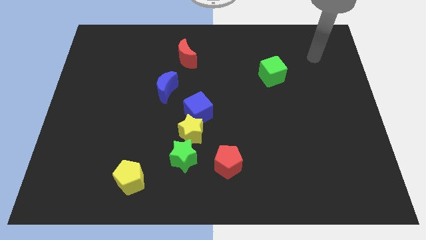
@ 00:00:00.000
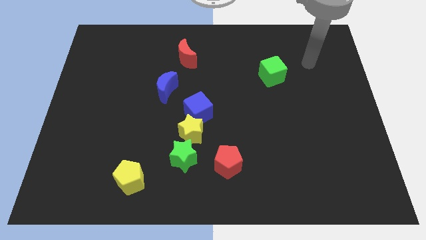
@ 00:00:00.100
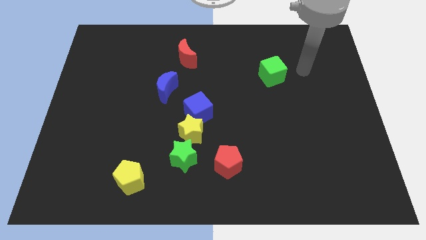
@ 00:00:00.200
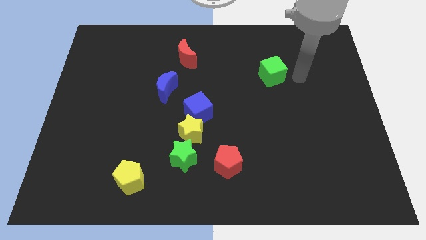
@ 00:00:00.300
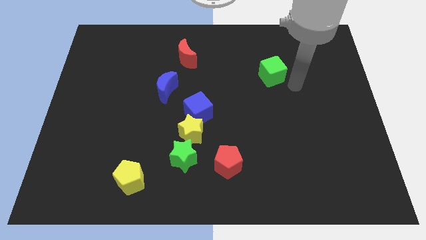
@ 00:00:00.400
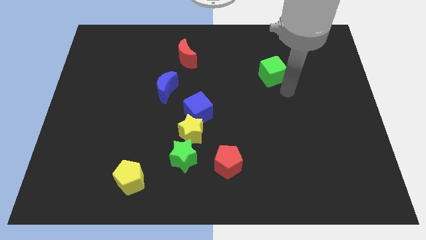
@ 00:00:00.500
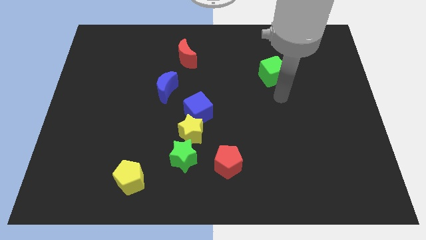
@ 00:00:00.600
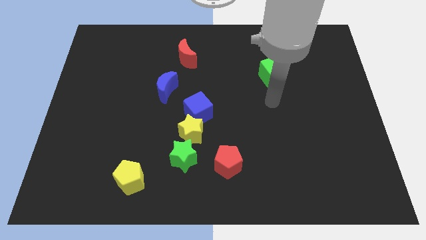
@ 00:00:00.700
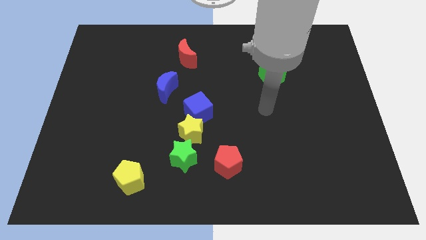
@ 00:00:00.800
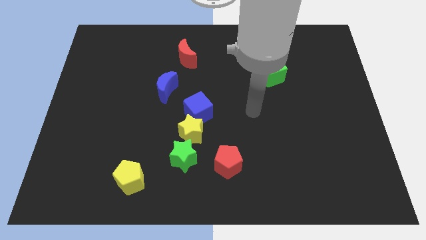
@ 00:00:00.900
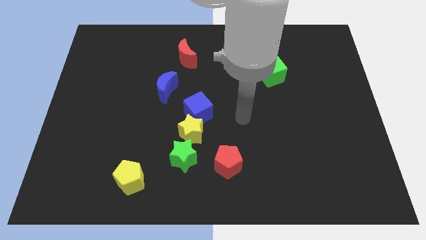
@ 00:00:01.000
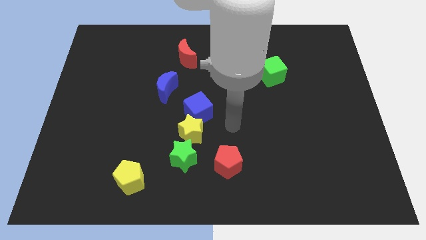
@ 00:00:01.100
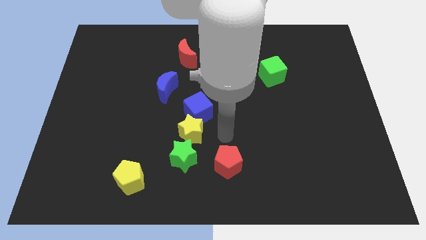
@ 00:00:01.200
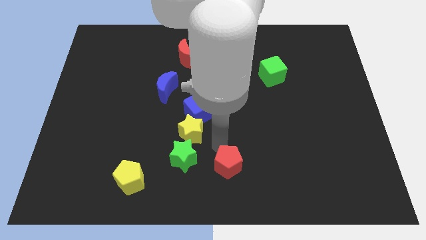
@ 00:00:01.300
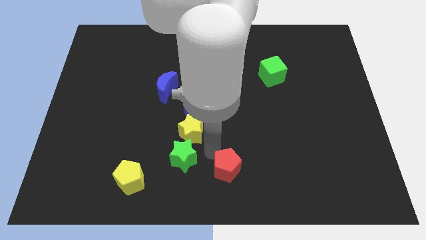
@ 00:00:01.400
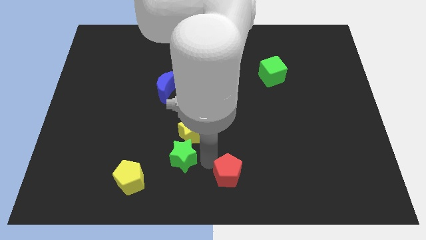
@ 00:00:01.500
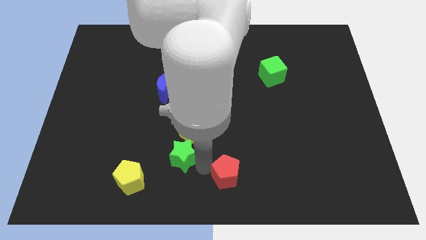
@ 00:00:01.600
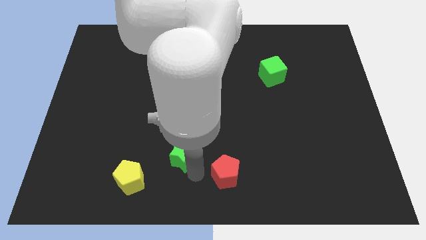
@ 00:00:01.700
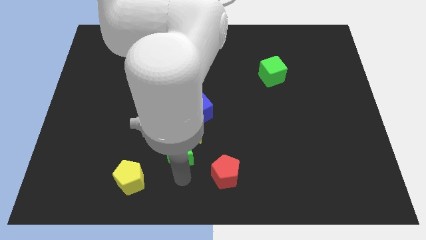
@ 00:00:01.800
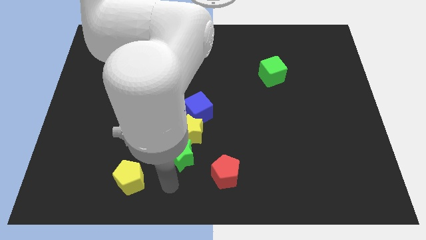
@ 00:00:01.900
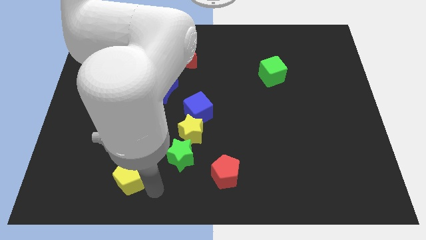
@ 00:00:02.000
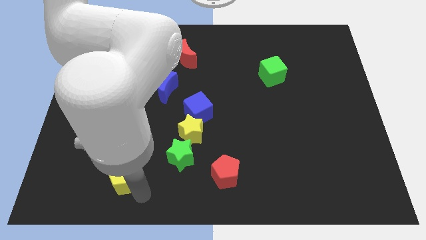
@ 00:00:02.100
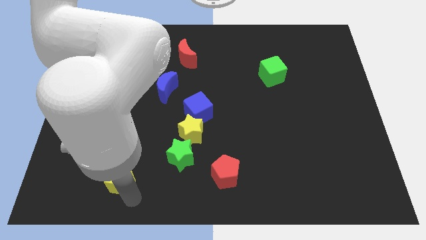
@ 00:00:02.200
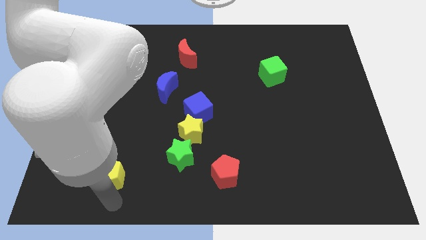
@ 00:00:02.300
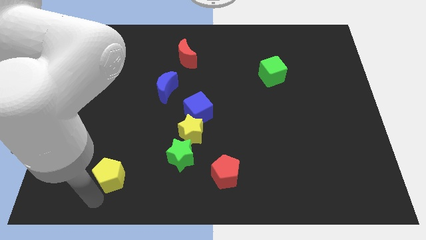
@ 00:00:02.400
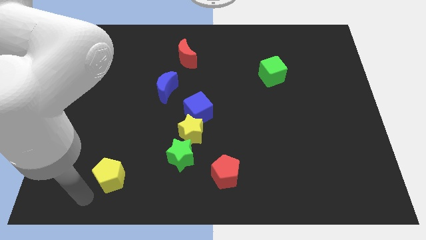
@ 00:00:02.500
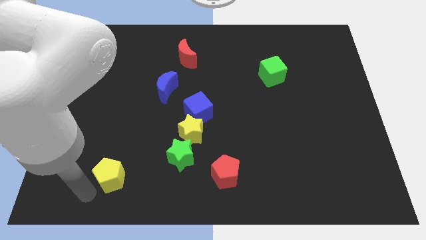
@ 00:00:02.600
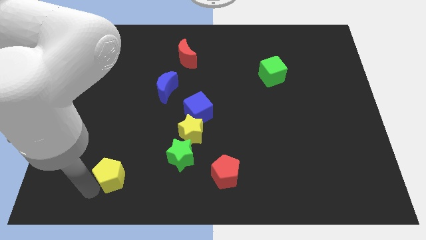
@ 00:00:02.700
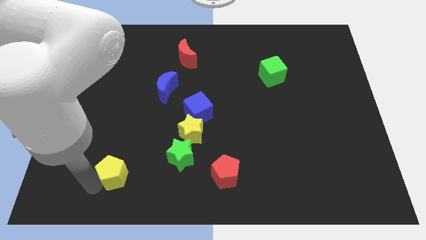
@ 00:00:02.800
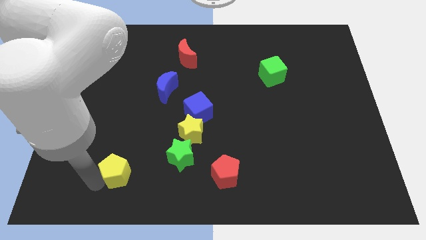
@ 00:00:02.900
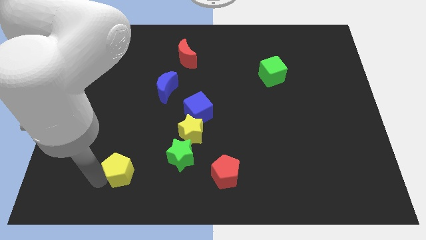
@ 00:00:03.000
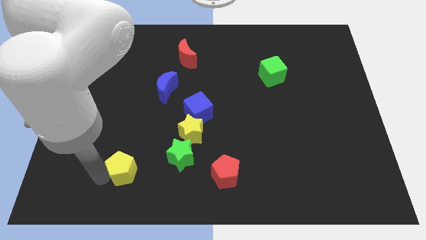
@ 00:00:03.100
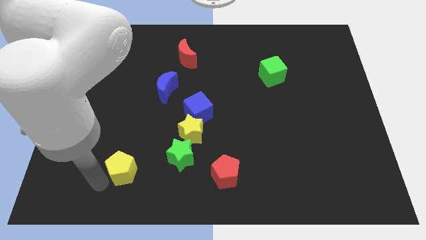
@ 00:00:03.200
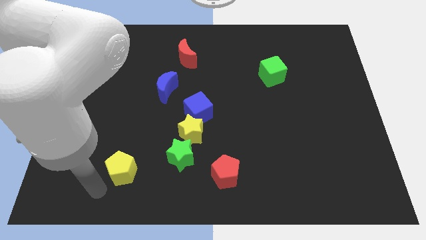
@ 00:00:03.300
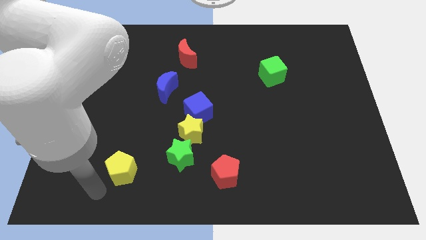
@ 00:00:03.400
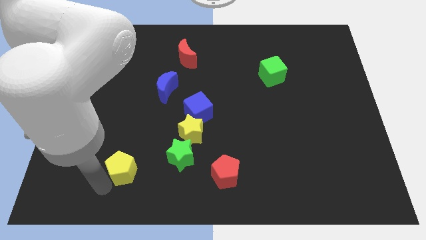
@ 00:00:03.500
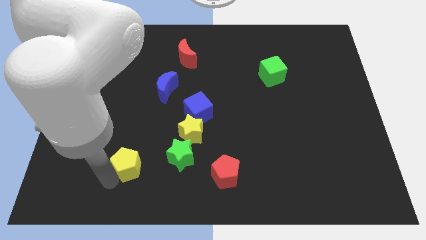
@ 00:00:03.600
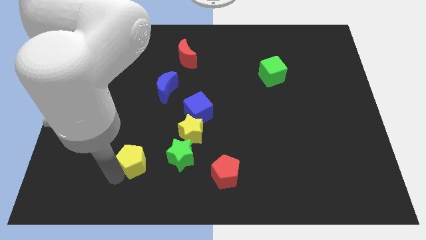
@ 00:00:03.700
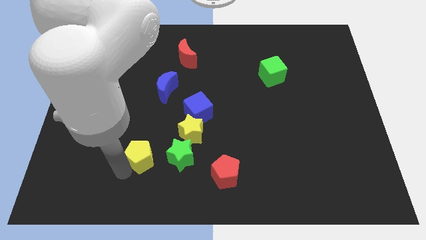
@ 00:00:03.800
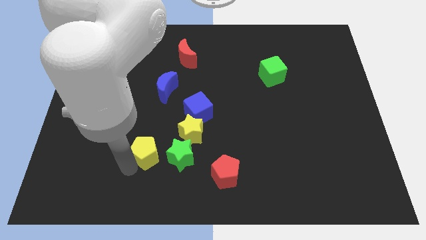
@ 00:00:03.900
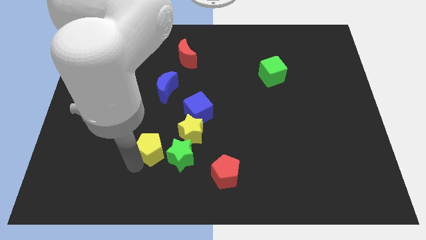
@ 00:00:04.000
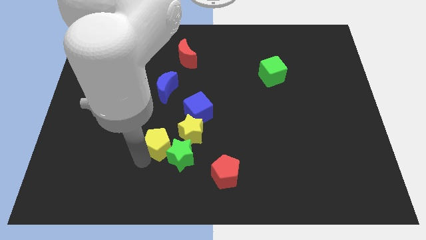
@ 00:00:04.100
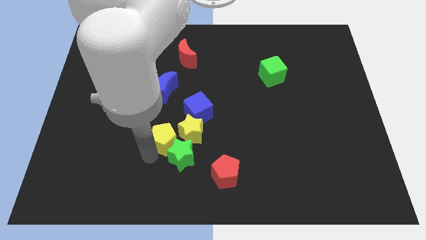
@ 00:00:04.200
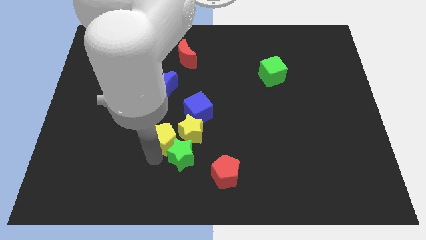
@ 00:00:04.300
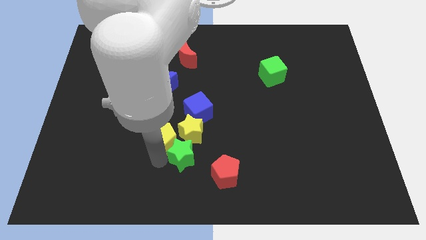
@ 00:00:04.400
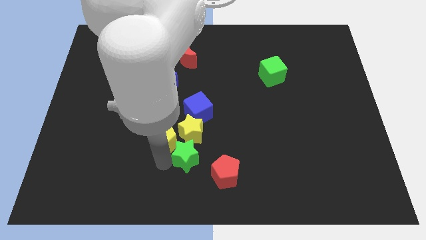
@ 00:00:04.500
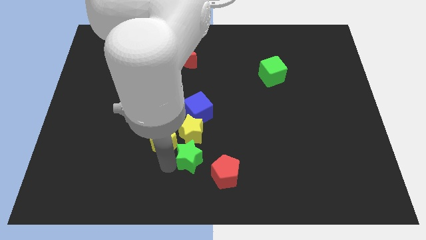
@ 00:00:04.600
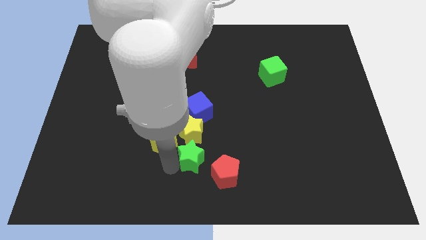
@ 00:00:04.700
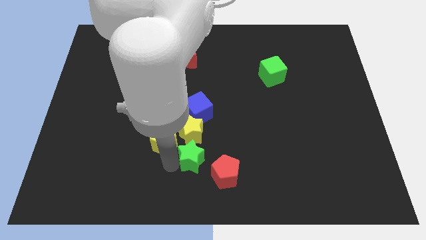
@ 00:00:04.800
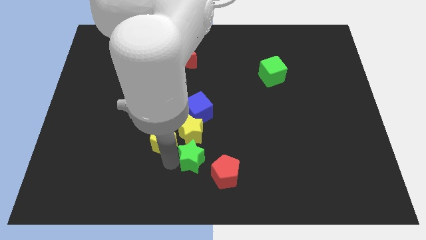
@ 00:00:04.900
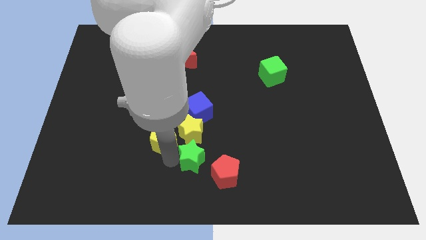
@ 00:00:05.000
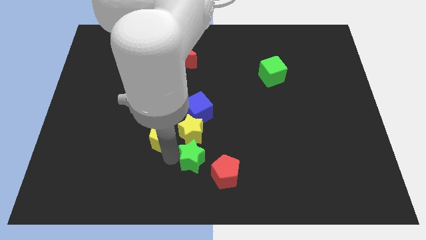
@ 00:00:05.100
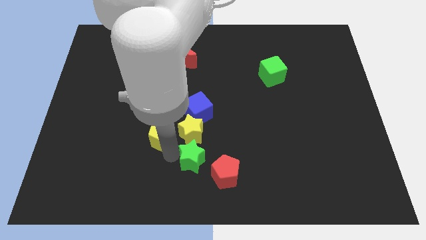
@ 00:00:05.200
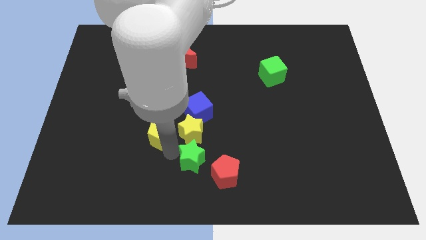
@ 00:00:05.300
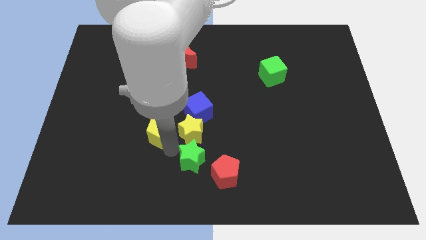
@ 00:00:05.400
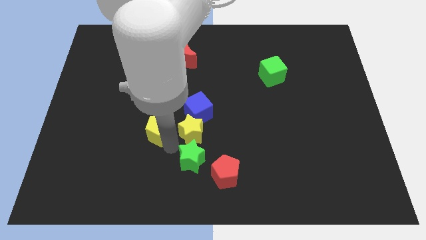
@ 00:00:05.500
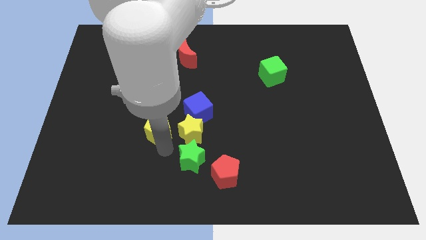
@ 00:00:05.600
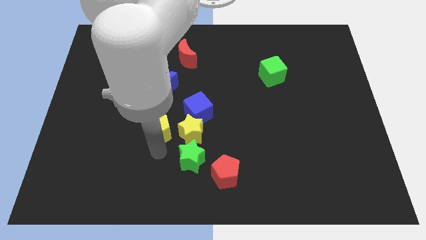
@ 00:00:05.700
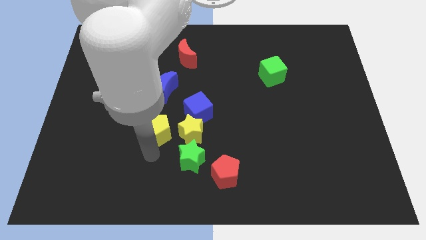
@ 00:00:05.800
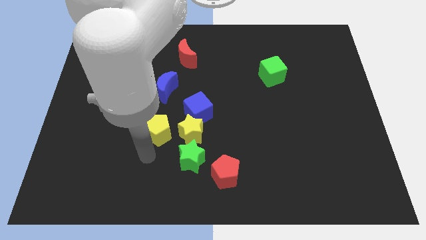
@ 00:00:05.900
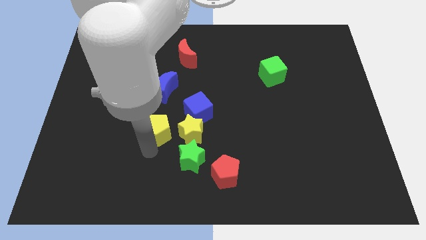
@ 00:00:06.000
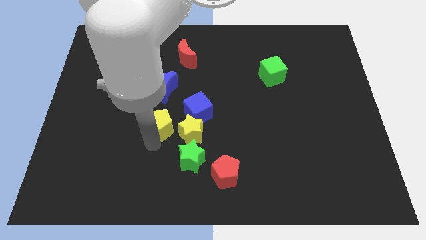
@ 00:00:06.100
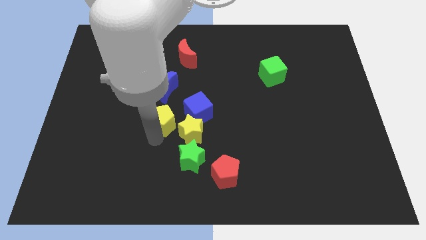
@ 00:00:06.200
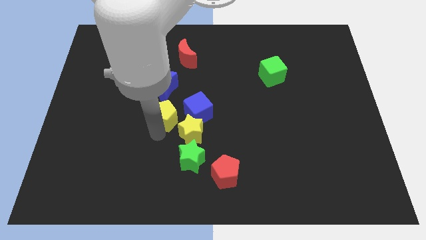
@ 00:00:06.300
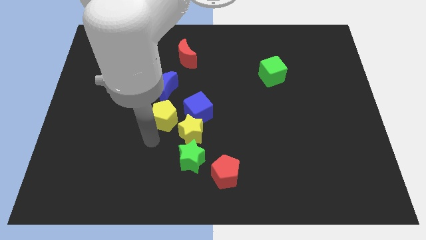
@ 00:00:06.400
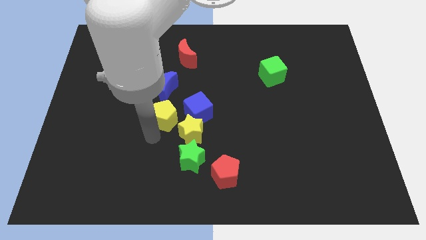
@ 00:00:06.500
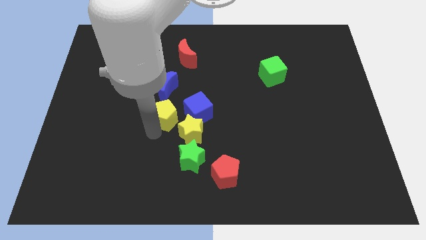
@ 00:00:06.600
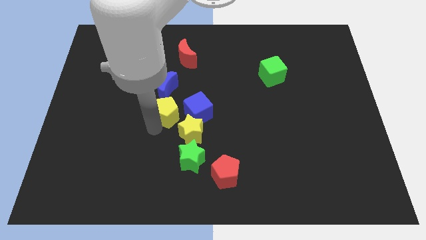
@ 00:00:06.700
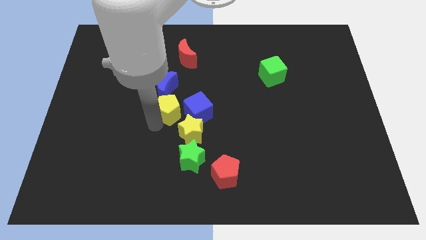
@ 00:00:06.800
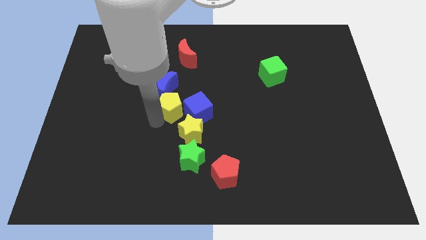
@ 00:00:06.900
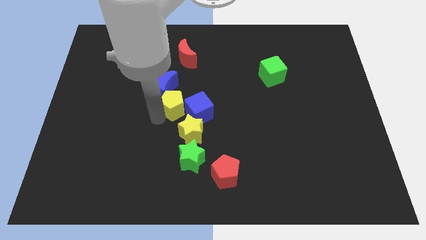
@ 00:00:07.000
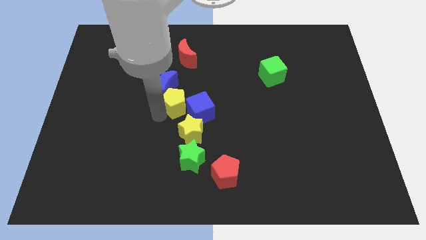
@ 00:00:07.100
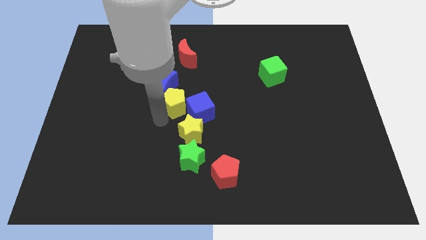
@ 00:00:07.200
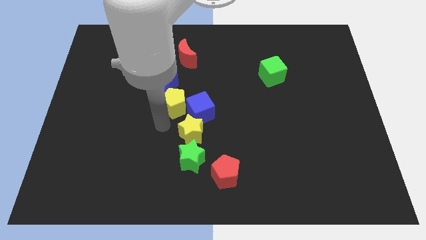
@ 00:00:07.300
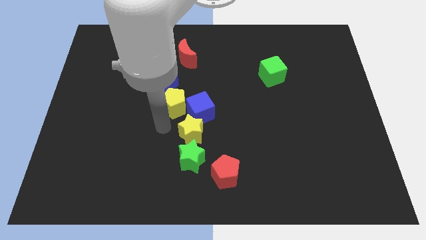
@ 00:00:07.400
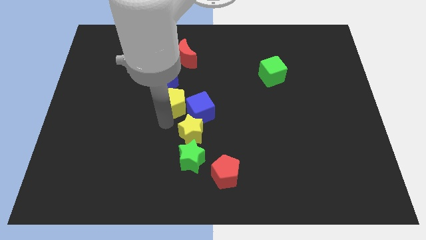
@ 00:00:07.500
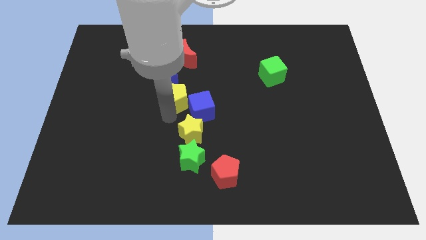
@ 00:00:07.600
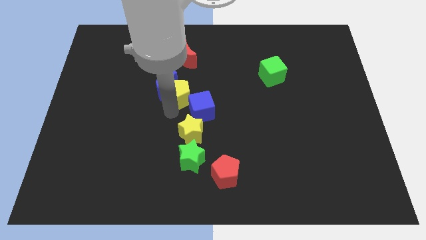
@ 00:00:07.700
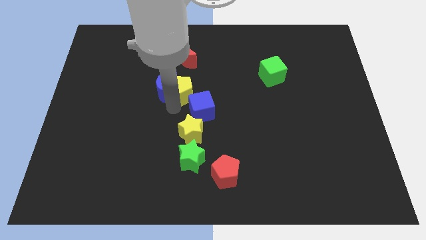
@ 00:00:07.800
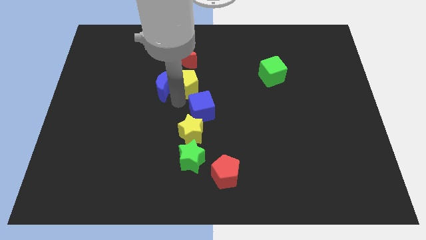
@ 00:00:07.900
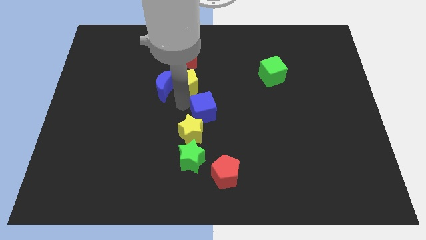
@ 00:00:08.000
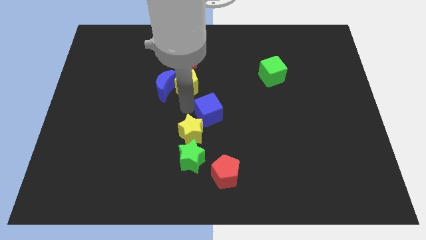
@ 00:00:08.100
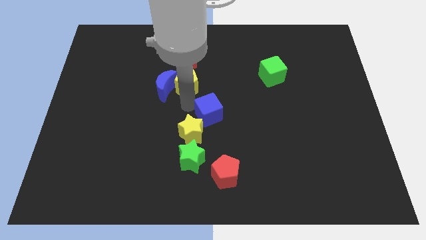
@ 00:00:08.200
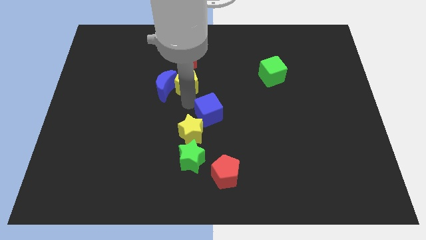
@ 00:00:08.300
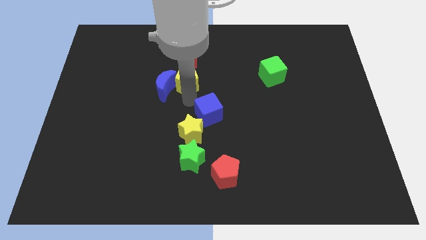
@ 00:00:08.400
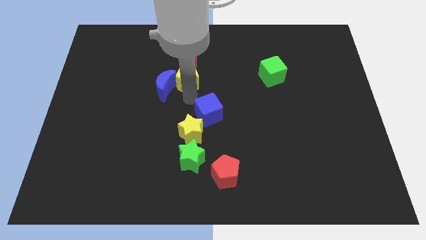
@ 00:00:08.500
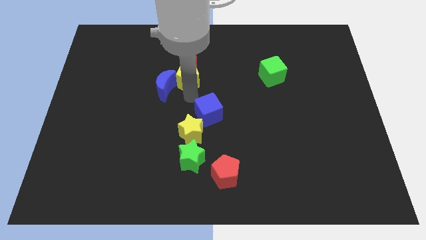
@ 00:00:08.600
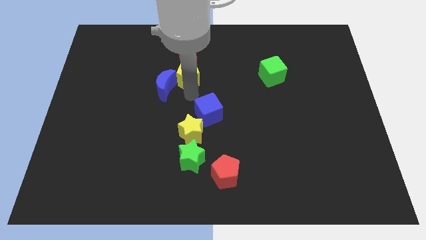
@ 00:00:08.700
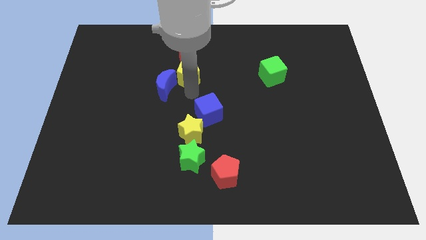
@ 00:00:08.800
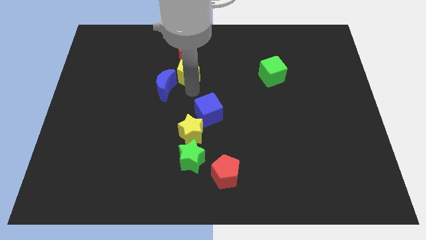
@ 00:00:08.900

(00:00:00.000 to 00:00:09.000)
move the yellow pentagon towards the red moon
